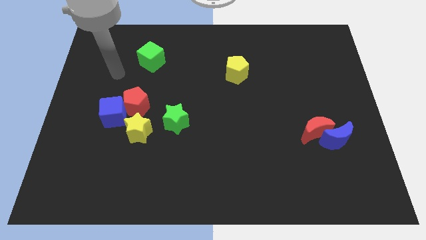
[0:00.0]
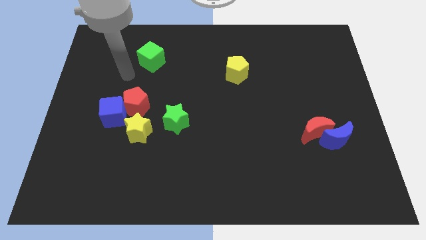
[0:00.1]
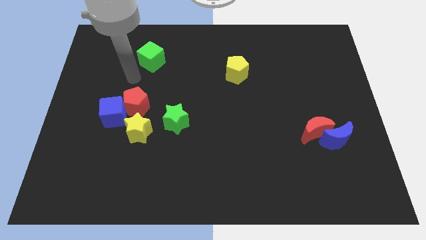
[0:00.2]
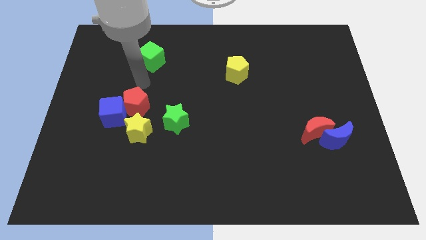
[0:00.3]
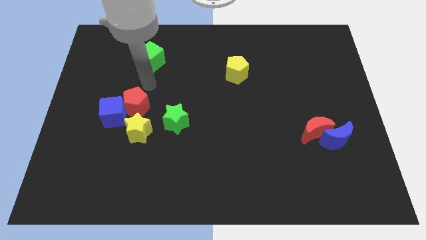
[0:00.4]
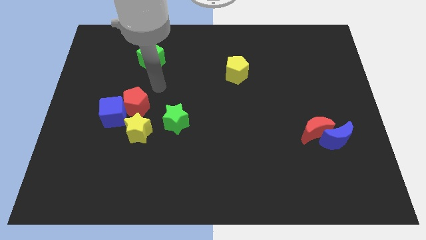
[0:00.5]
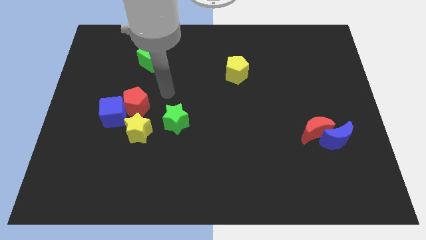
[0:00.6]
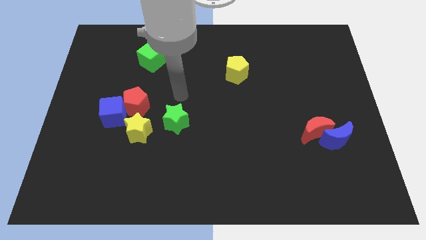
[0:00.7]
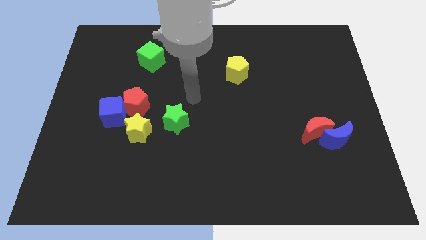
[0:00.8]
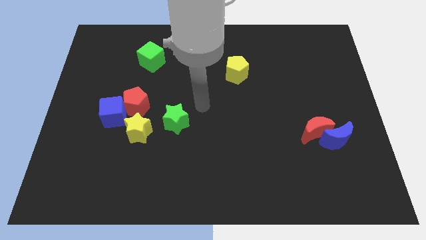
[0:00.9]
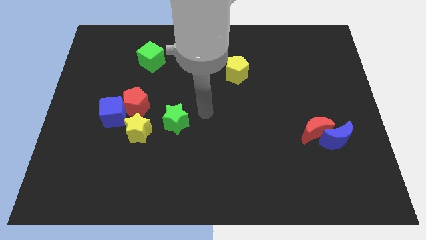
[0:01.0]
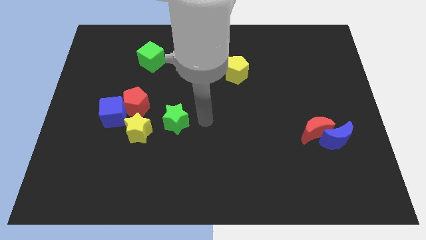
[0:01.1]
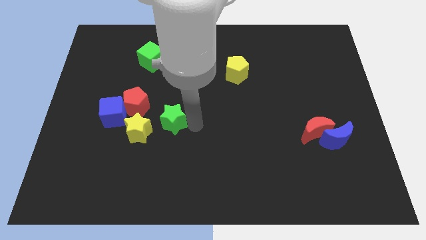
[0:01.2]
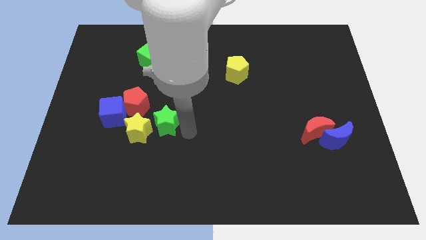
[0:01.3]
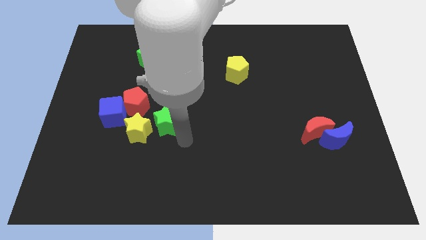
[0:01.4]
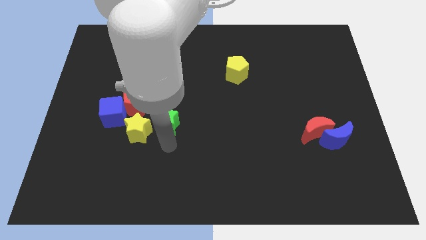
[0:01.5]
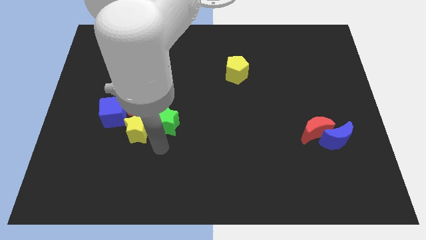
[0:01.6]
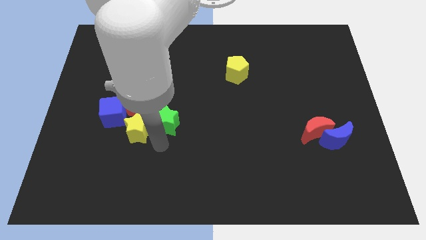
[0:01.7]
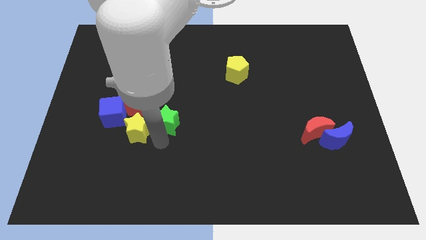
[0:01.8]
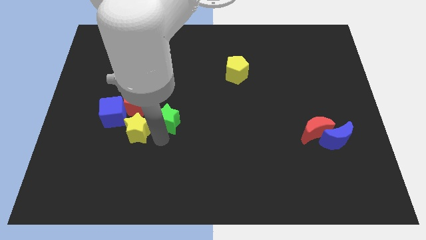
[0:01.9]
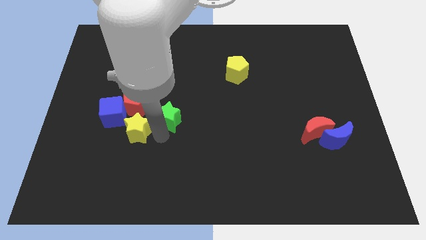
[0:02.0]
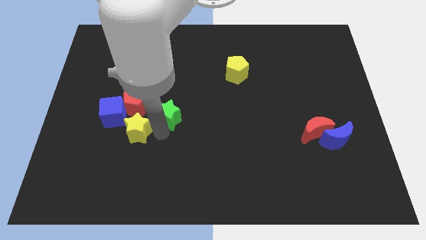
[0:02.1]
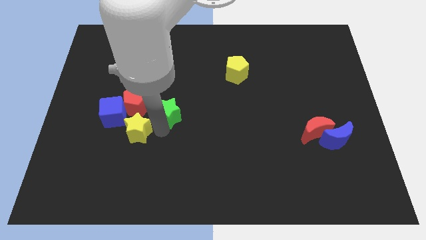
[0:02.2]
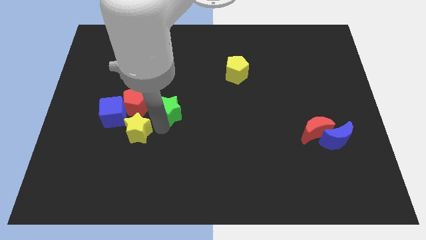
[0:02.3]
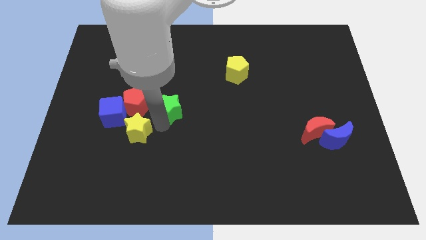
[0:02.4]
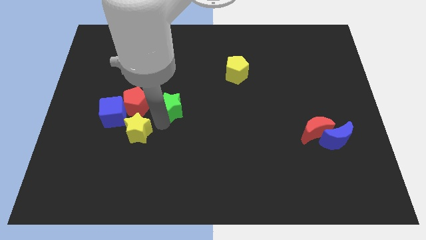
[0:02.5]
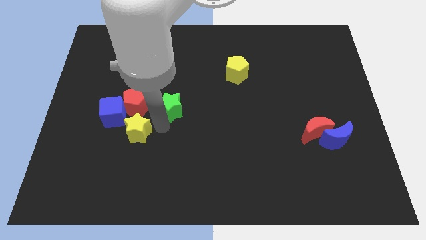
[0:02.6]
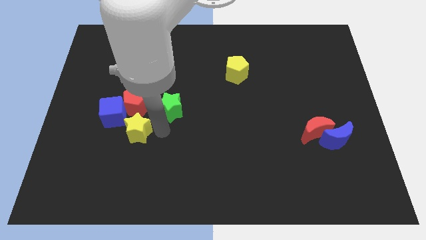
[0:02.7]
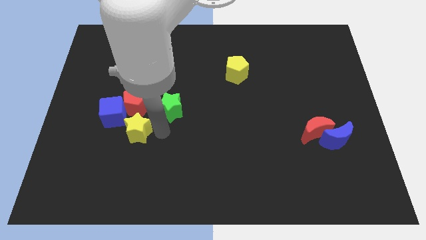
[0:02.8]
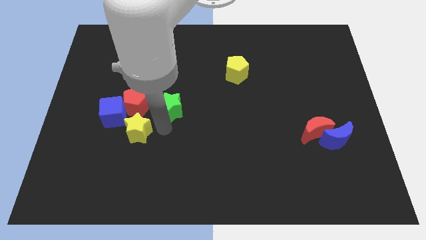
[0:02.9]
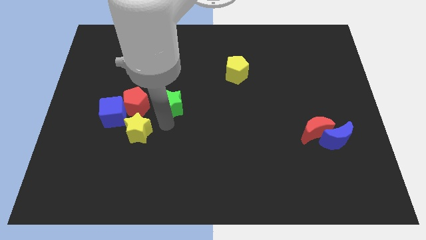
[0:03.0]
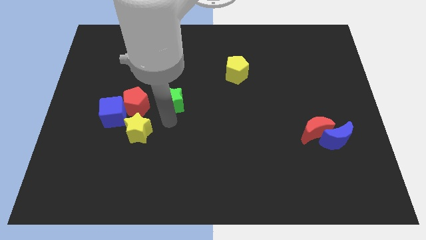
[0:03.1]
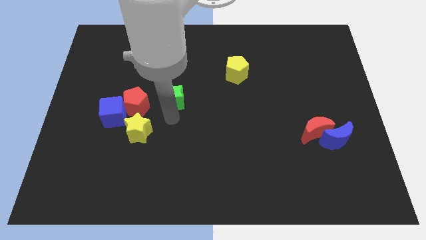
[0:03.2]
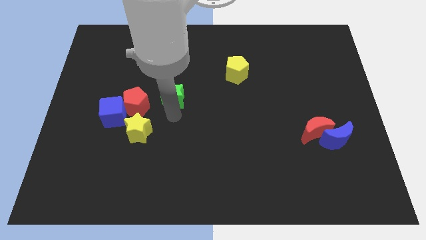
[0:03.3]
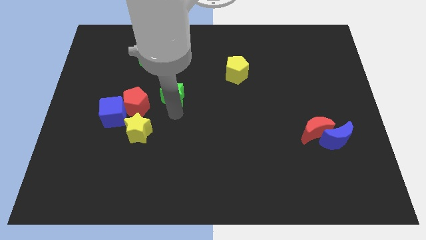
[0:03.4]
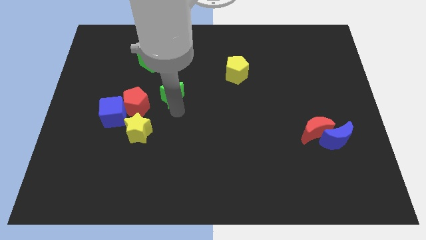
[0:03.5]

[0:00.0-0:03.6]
move the green star a little upwards

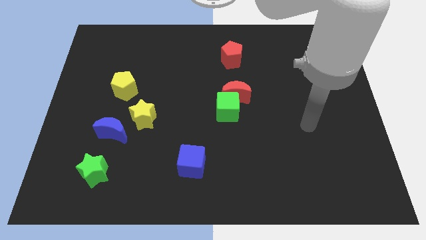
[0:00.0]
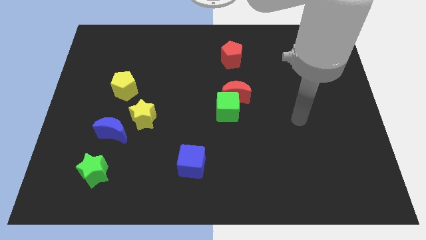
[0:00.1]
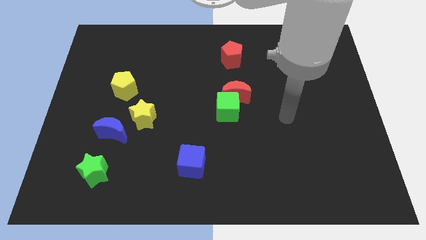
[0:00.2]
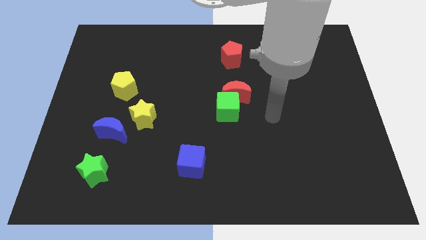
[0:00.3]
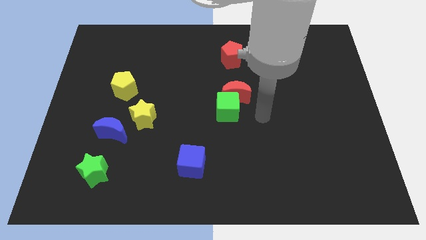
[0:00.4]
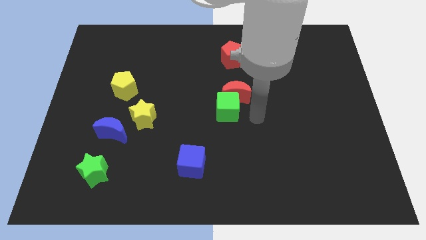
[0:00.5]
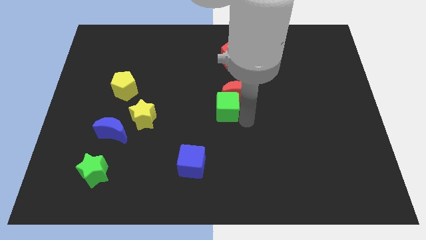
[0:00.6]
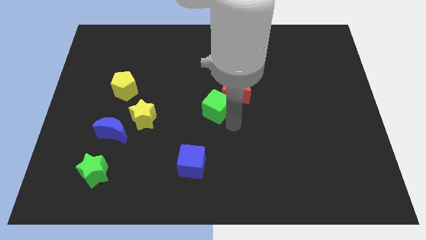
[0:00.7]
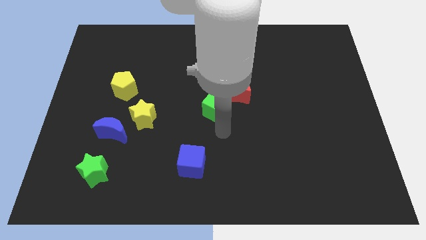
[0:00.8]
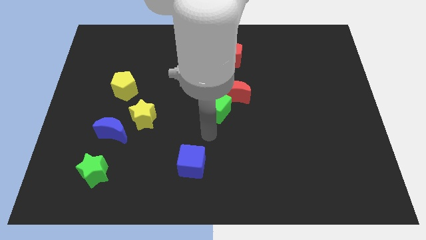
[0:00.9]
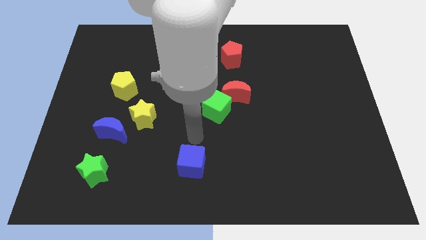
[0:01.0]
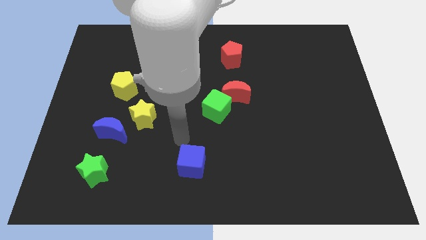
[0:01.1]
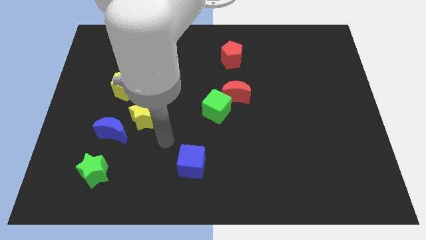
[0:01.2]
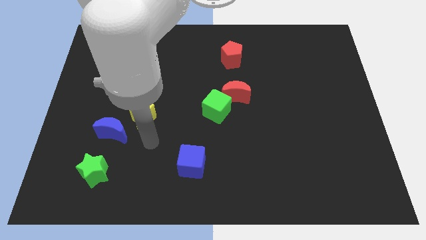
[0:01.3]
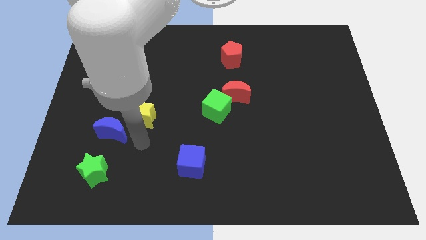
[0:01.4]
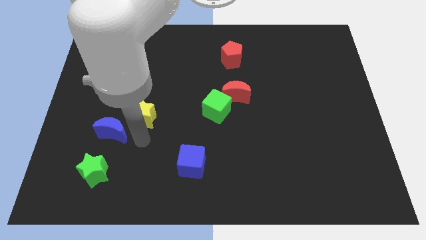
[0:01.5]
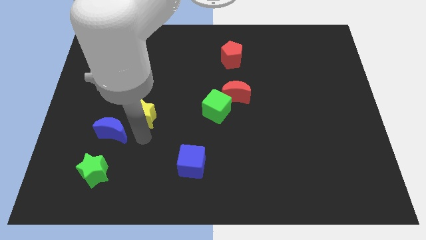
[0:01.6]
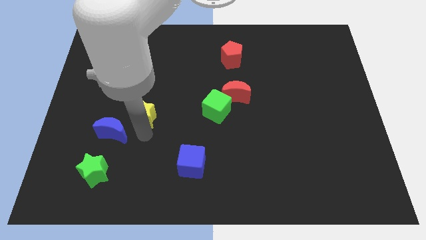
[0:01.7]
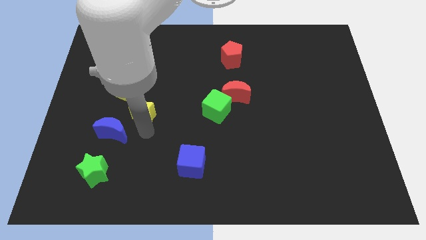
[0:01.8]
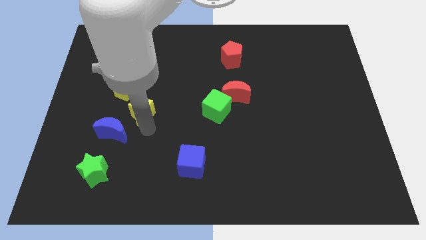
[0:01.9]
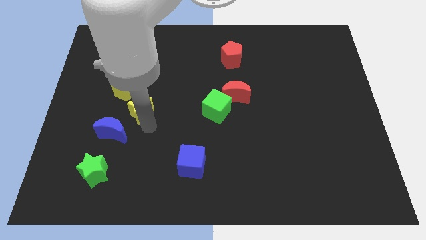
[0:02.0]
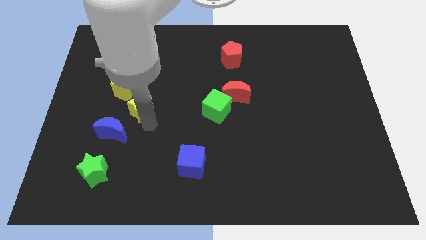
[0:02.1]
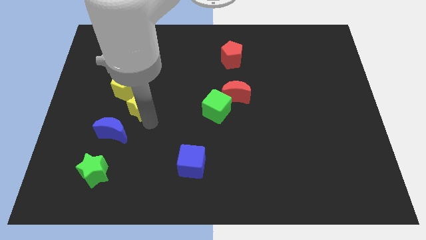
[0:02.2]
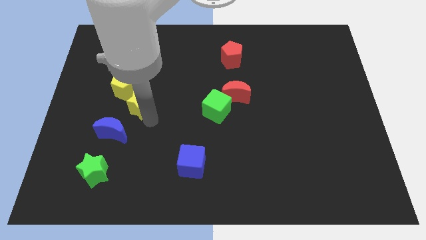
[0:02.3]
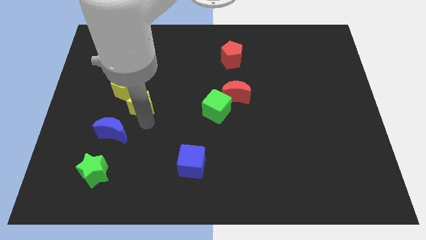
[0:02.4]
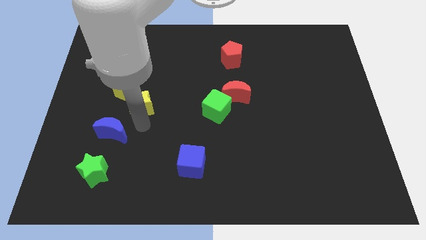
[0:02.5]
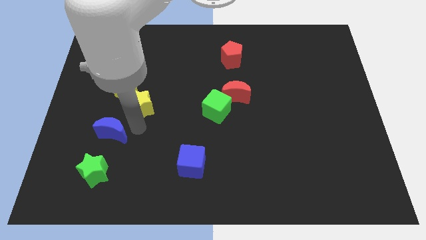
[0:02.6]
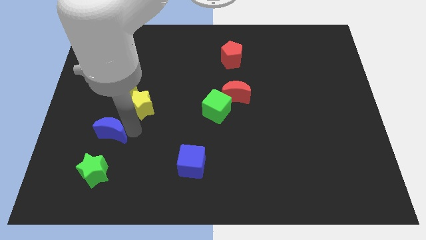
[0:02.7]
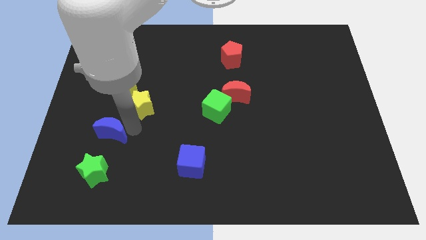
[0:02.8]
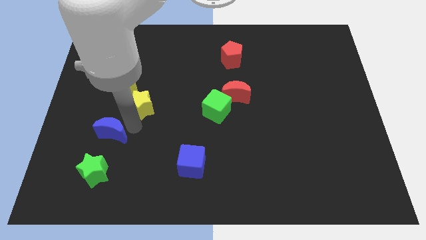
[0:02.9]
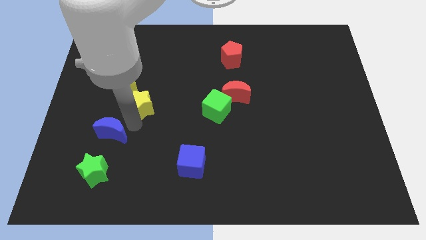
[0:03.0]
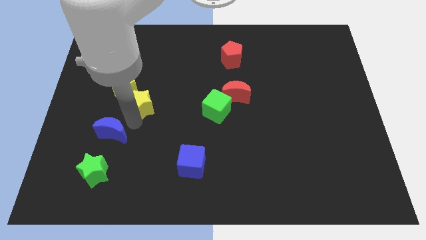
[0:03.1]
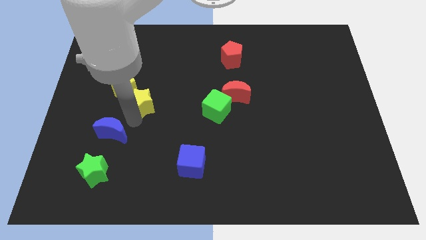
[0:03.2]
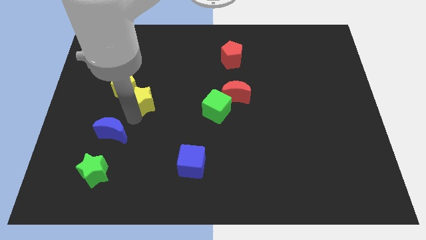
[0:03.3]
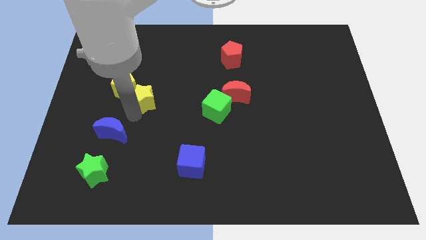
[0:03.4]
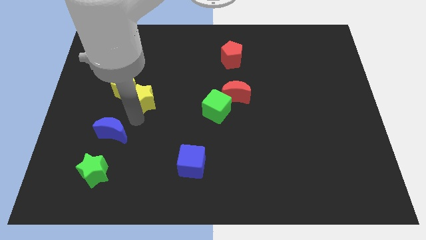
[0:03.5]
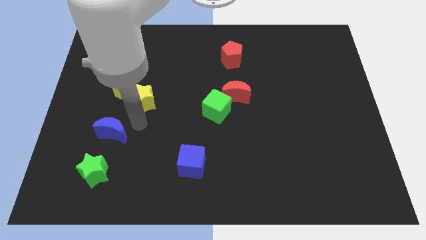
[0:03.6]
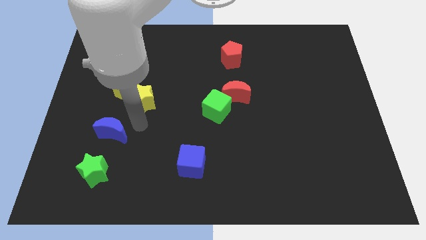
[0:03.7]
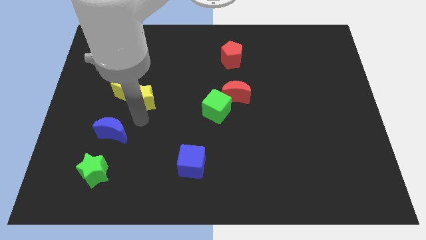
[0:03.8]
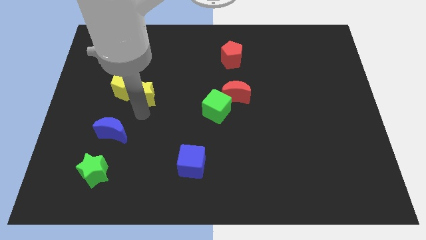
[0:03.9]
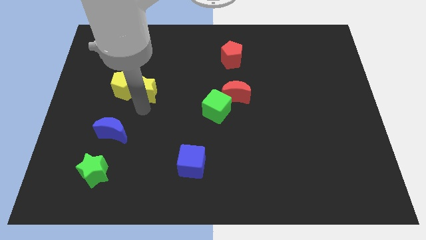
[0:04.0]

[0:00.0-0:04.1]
slide the yellow star upwards a little
